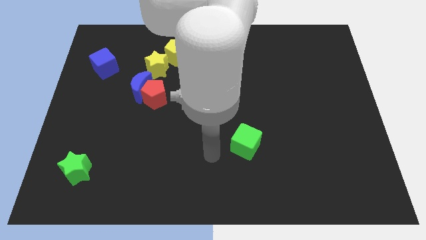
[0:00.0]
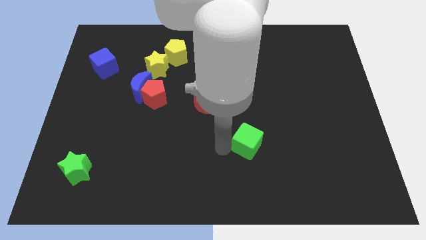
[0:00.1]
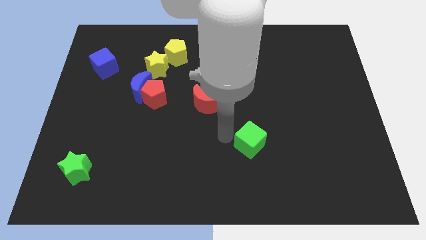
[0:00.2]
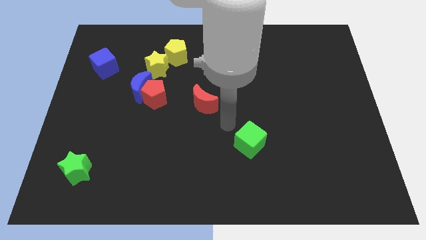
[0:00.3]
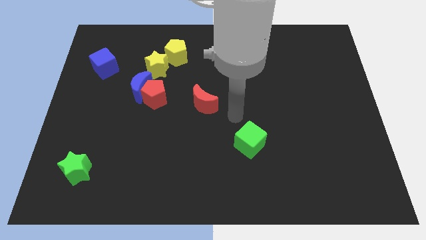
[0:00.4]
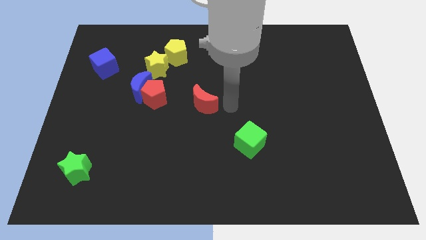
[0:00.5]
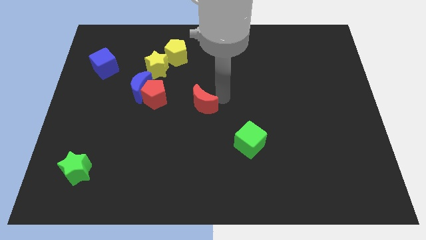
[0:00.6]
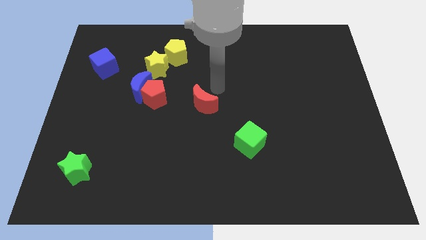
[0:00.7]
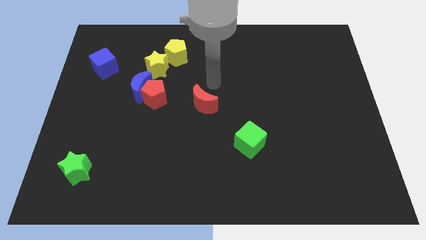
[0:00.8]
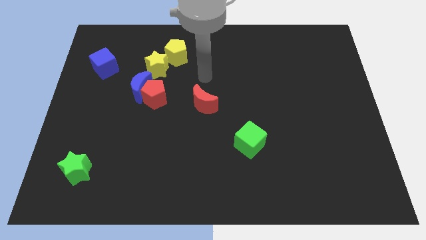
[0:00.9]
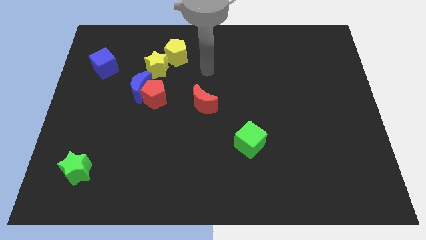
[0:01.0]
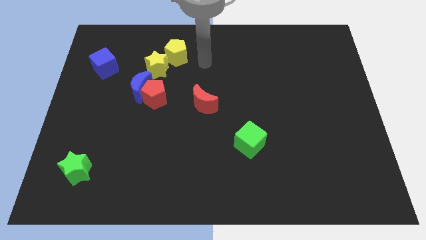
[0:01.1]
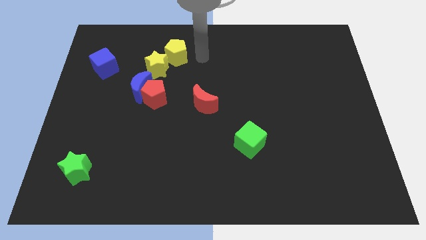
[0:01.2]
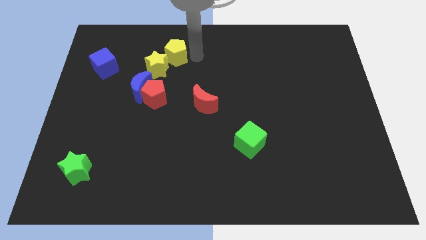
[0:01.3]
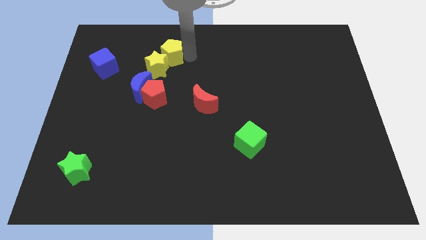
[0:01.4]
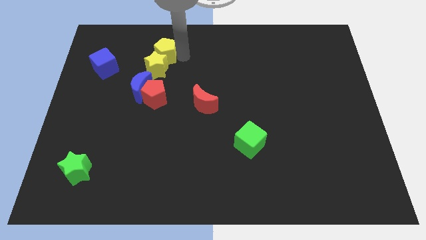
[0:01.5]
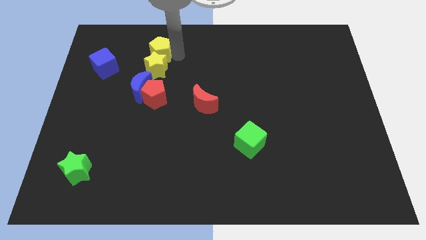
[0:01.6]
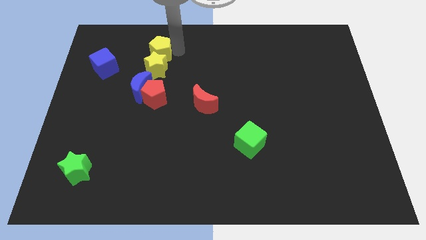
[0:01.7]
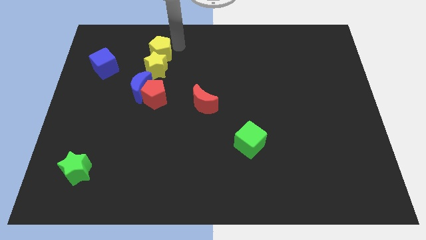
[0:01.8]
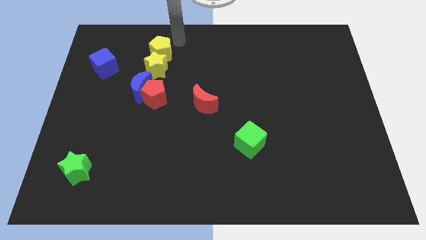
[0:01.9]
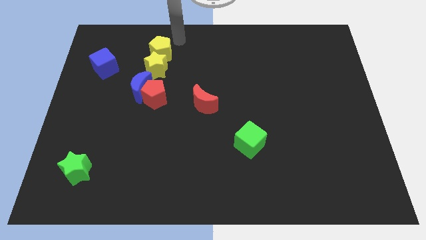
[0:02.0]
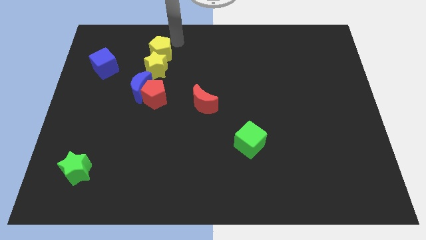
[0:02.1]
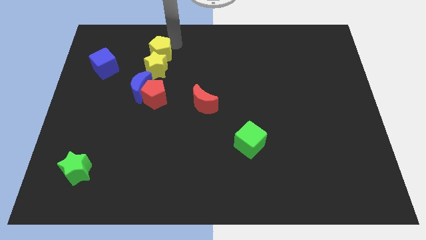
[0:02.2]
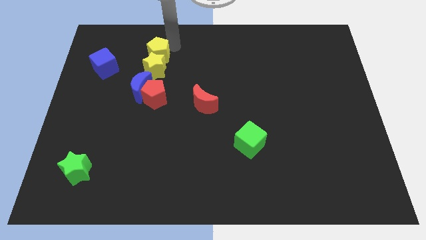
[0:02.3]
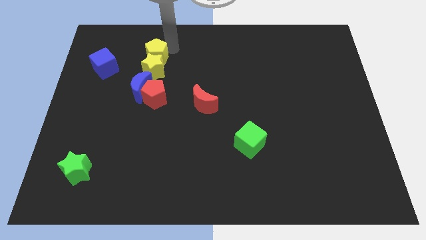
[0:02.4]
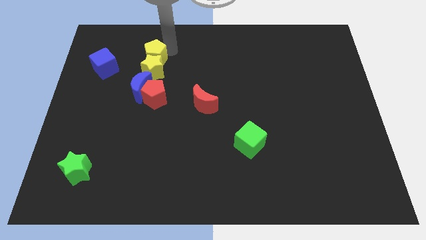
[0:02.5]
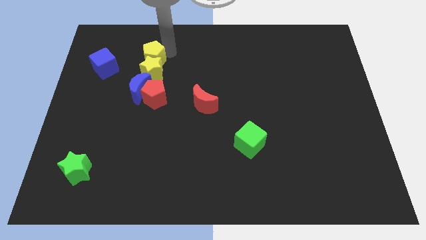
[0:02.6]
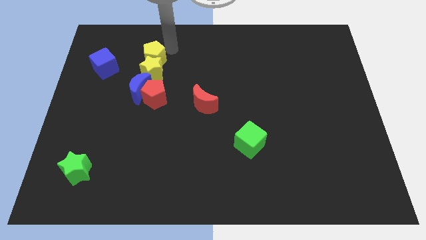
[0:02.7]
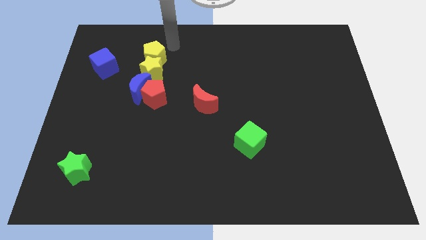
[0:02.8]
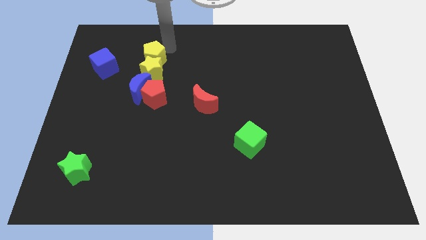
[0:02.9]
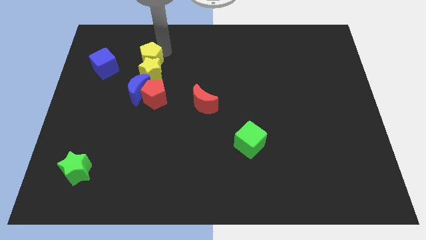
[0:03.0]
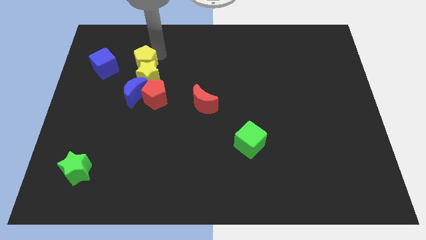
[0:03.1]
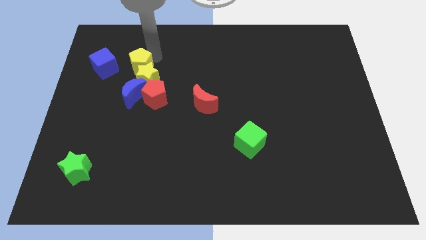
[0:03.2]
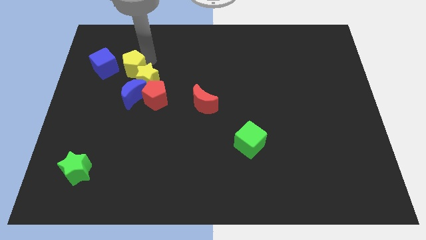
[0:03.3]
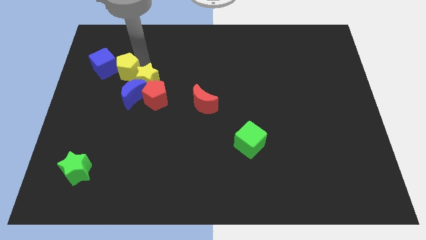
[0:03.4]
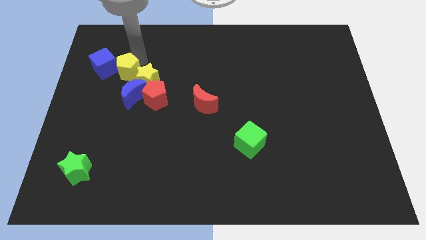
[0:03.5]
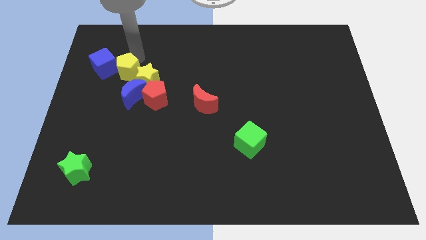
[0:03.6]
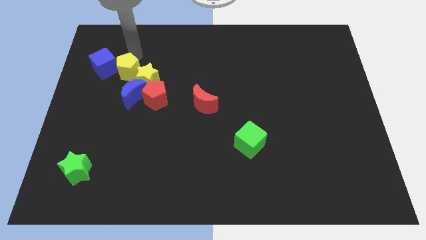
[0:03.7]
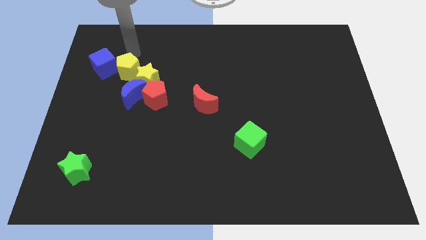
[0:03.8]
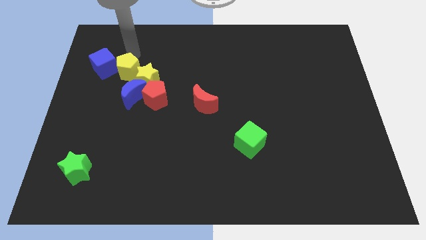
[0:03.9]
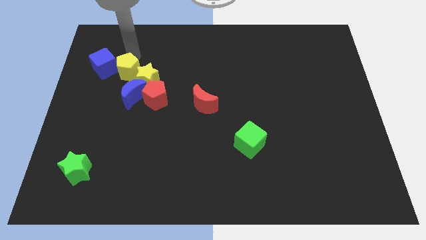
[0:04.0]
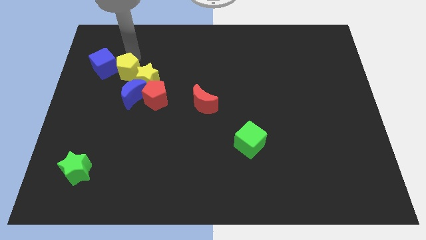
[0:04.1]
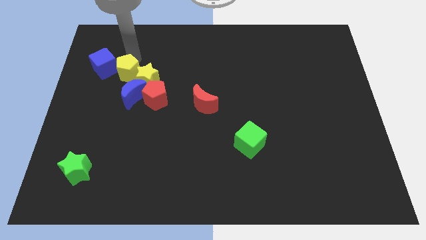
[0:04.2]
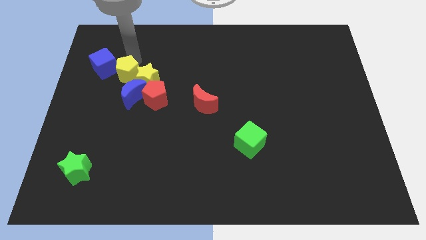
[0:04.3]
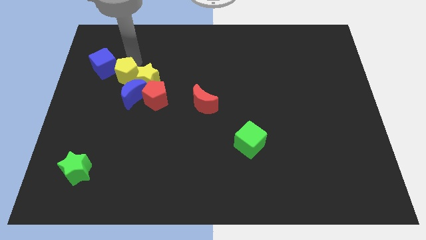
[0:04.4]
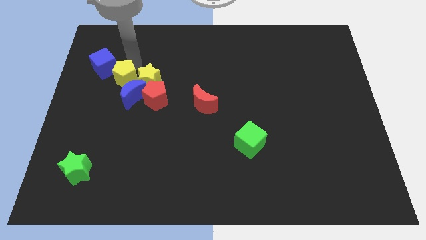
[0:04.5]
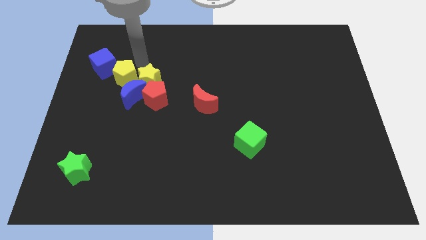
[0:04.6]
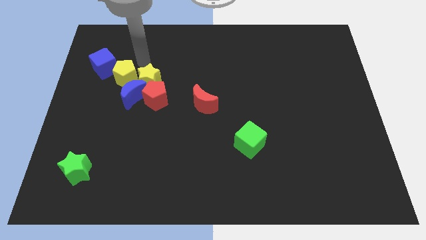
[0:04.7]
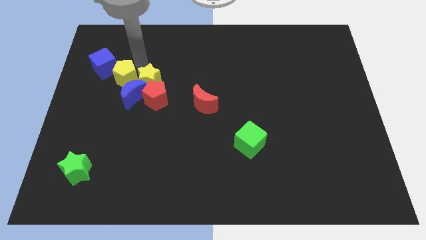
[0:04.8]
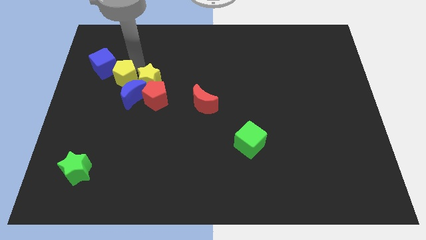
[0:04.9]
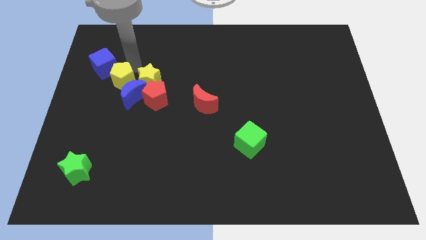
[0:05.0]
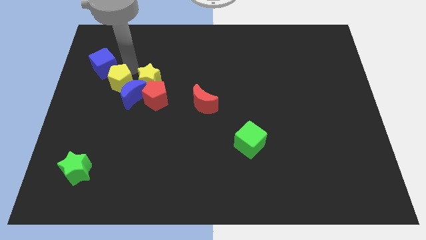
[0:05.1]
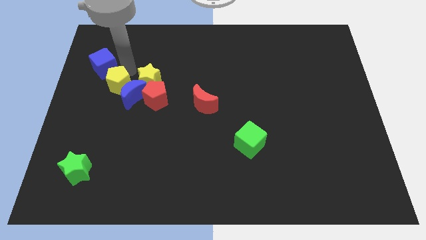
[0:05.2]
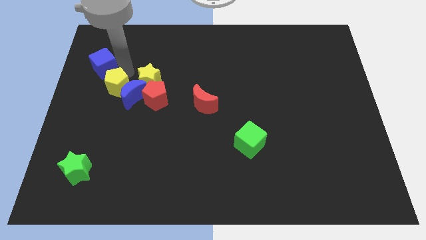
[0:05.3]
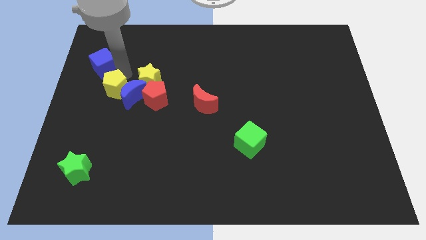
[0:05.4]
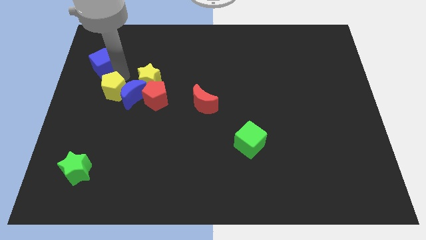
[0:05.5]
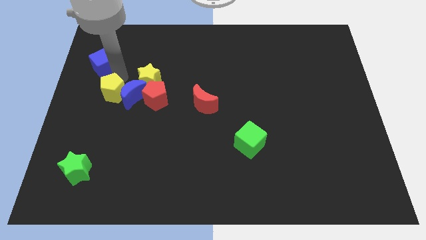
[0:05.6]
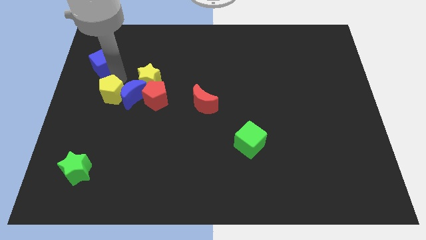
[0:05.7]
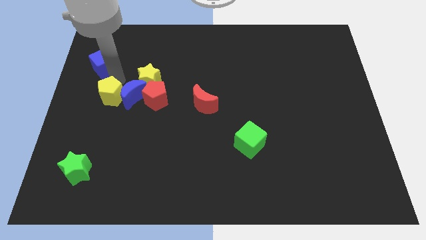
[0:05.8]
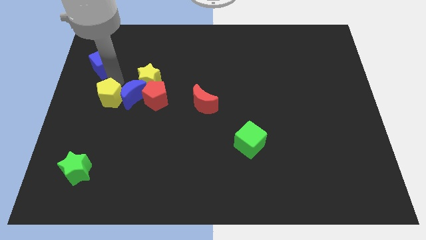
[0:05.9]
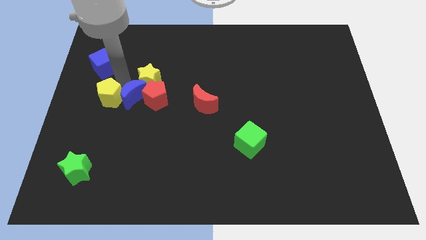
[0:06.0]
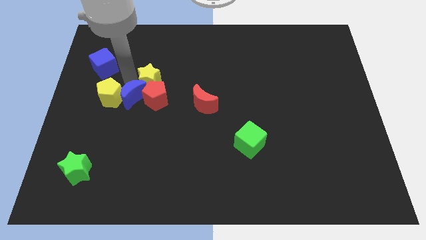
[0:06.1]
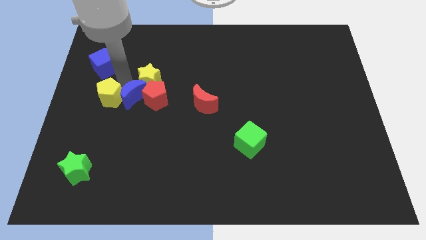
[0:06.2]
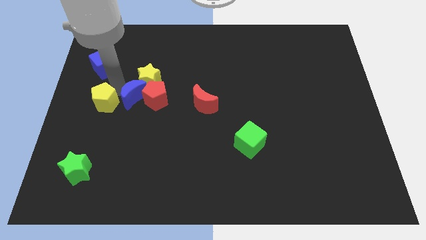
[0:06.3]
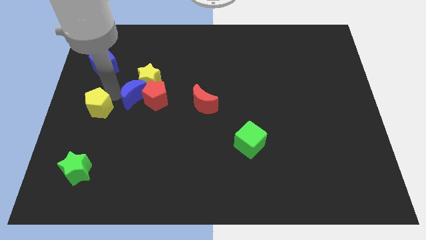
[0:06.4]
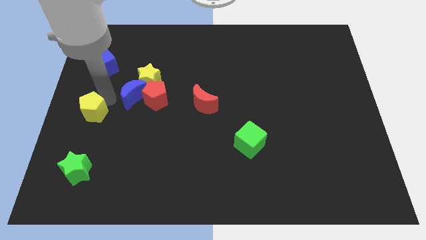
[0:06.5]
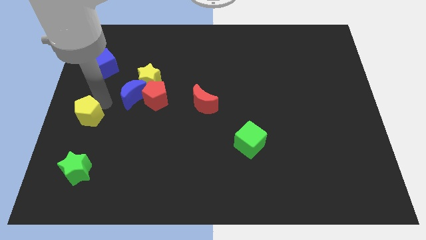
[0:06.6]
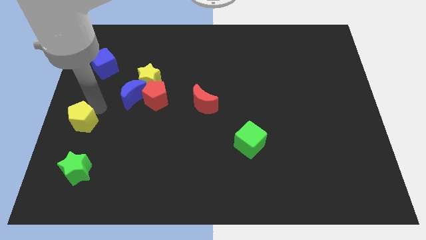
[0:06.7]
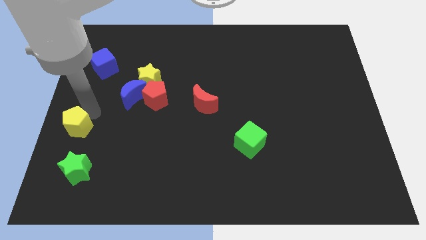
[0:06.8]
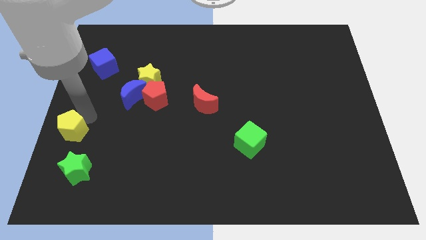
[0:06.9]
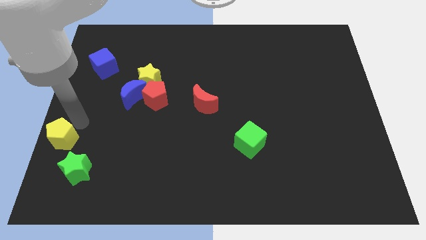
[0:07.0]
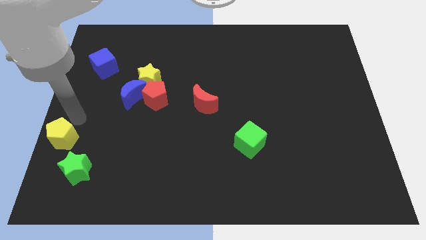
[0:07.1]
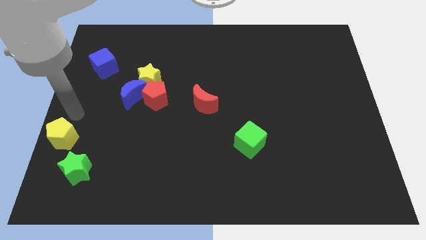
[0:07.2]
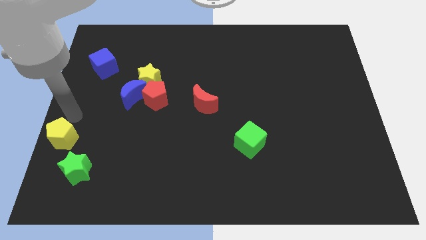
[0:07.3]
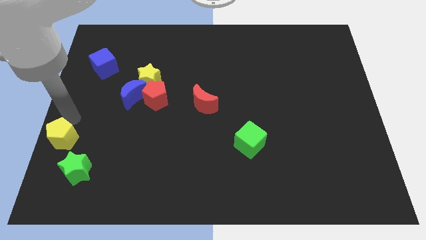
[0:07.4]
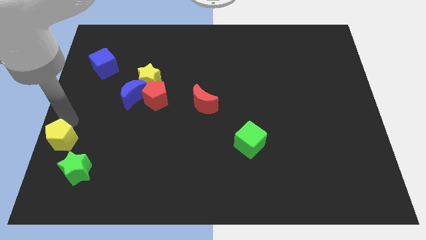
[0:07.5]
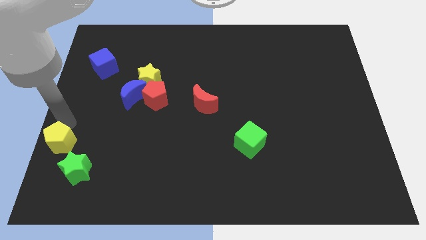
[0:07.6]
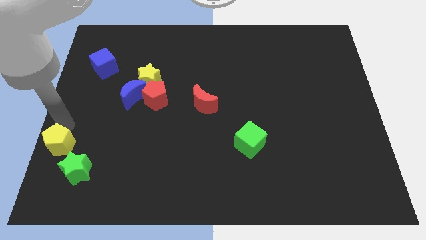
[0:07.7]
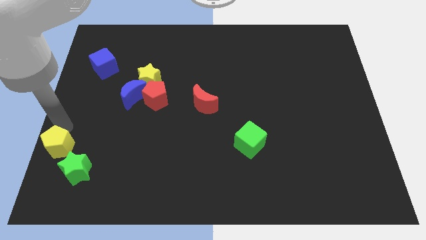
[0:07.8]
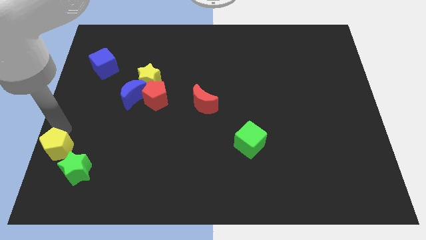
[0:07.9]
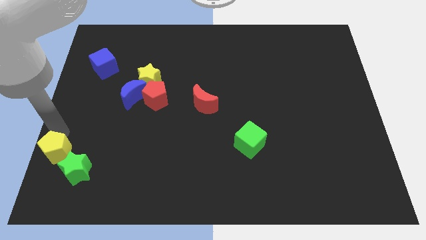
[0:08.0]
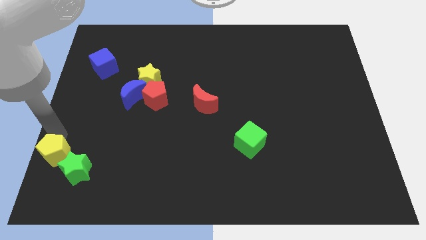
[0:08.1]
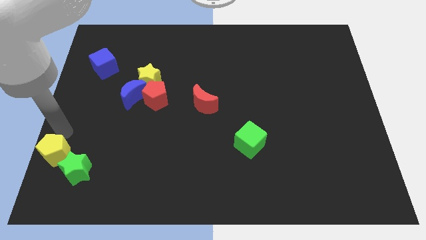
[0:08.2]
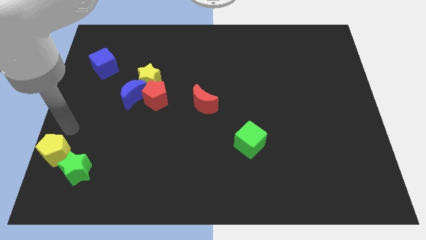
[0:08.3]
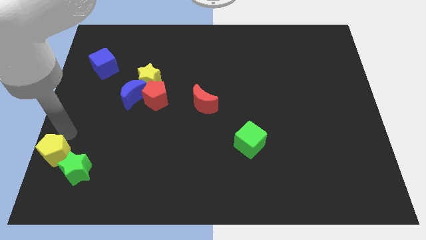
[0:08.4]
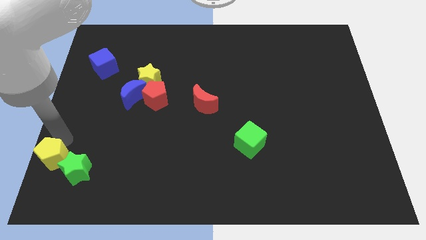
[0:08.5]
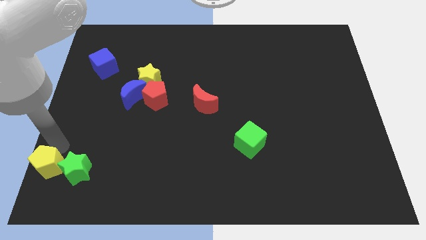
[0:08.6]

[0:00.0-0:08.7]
slide the yellow pentagon to the bottom left of the board
